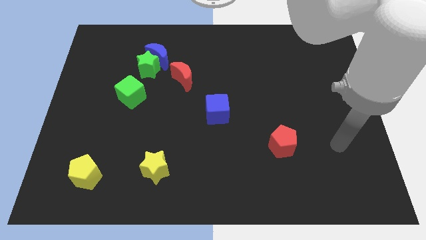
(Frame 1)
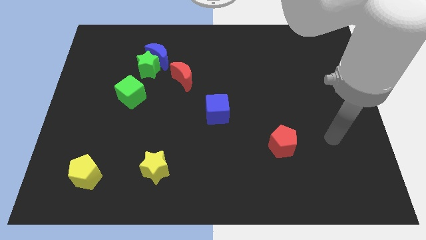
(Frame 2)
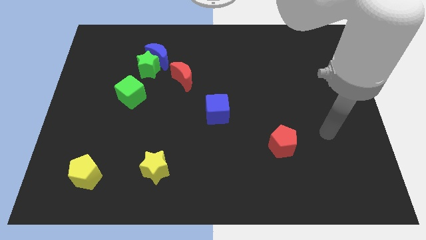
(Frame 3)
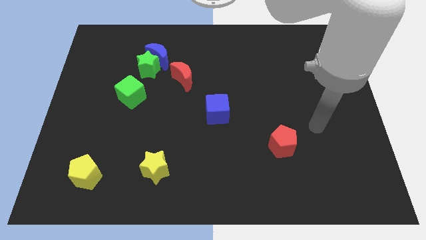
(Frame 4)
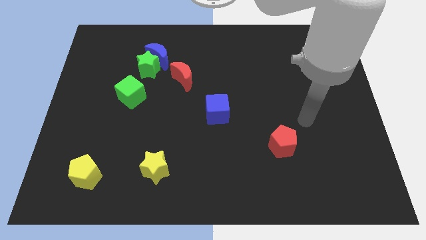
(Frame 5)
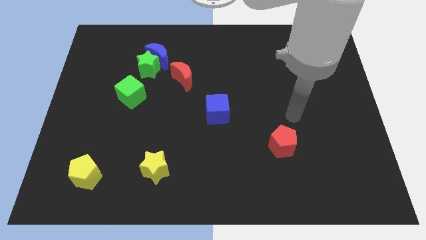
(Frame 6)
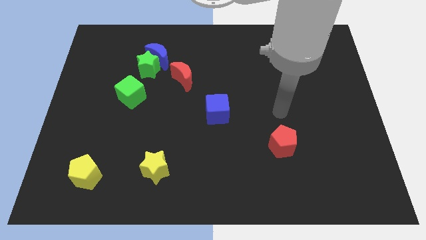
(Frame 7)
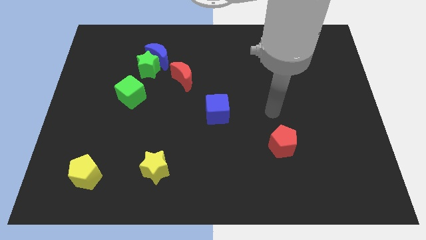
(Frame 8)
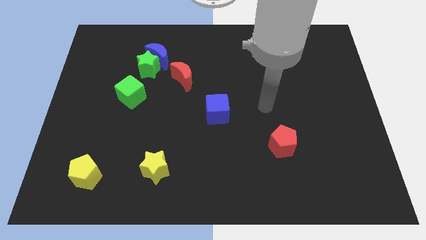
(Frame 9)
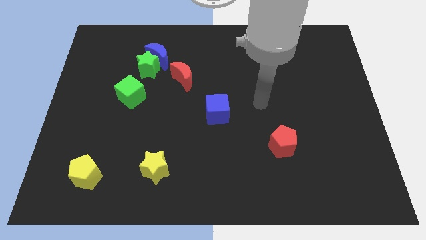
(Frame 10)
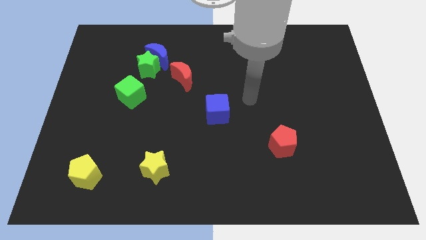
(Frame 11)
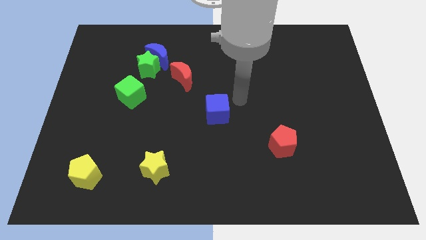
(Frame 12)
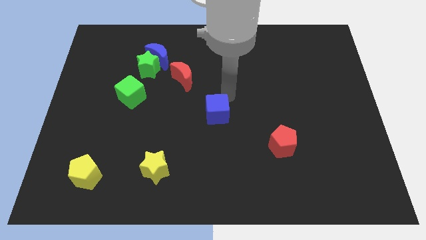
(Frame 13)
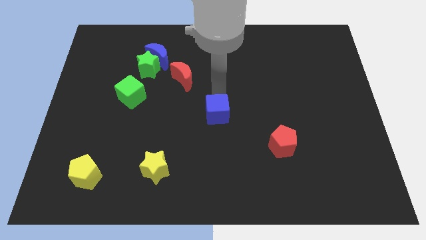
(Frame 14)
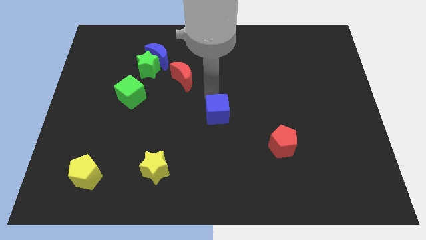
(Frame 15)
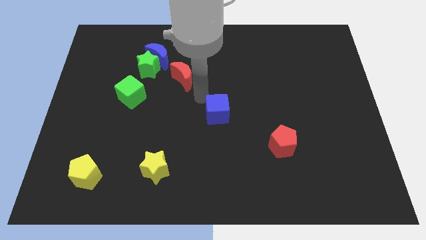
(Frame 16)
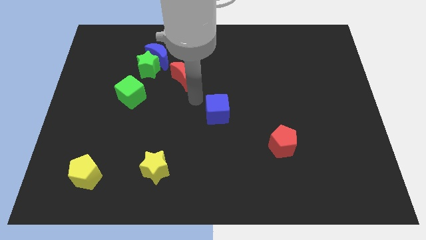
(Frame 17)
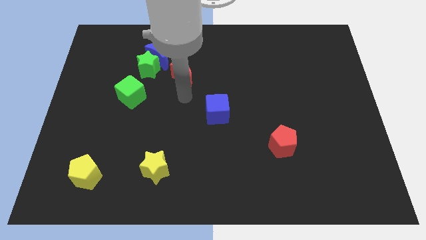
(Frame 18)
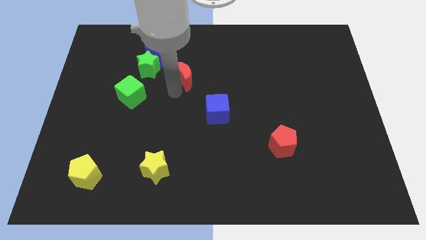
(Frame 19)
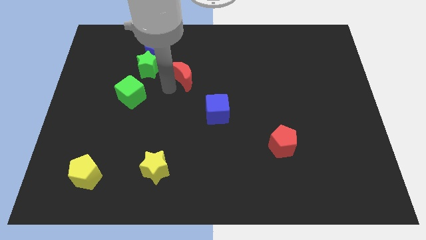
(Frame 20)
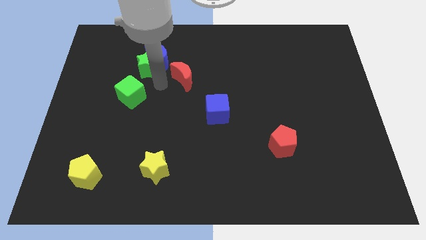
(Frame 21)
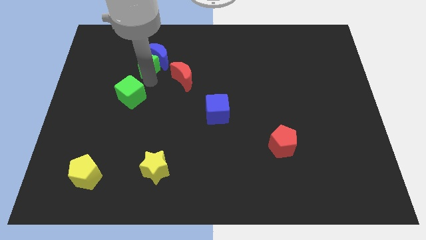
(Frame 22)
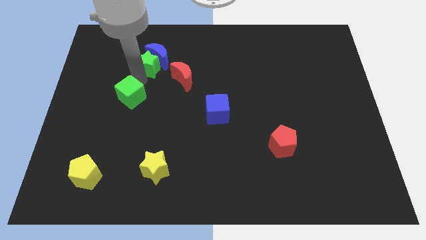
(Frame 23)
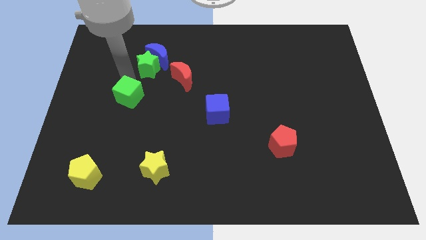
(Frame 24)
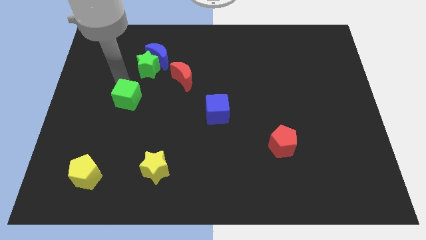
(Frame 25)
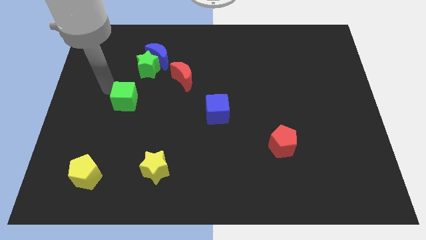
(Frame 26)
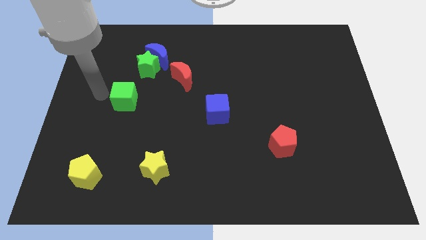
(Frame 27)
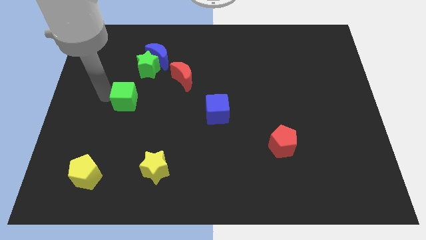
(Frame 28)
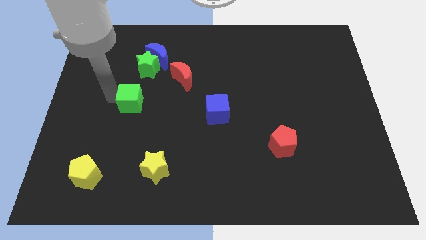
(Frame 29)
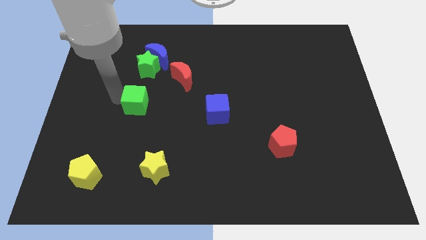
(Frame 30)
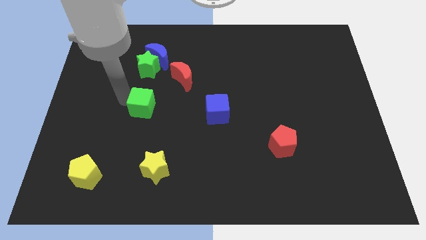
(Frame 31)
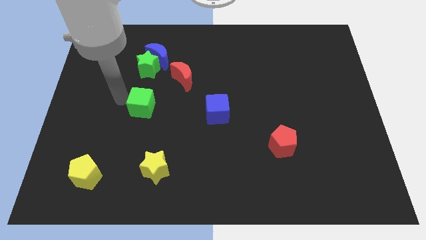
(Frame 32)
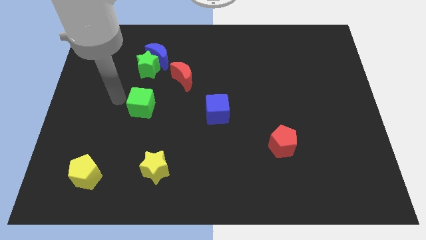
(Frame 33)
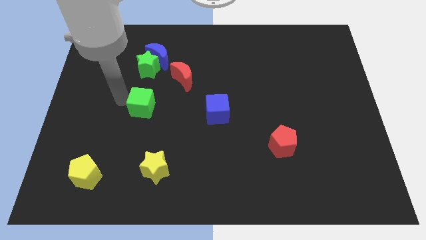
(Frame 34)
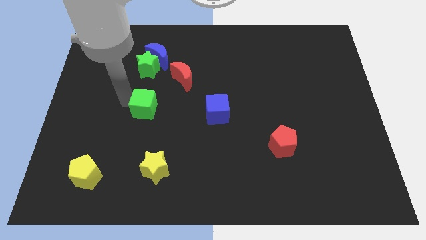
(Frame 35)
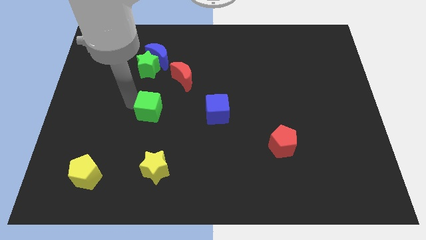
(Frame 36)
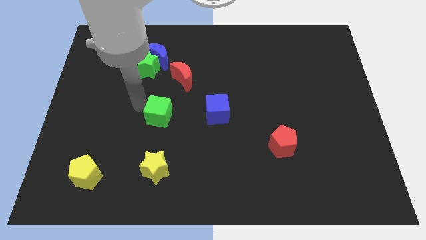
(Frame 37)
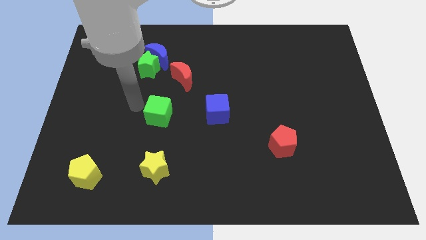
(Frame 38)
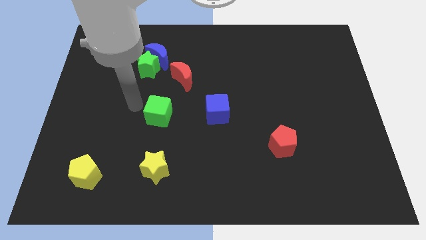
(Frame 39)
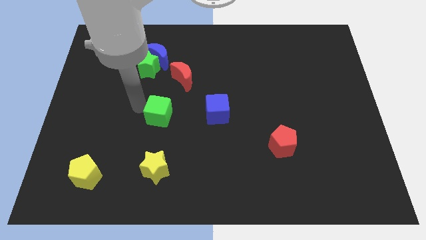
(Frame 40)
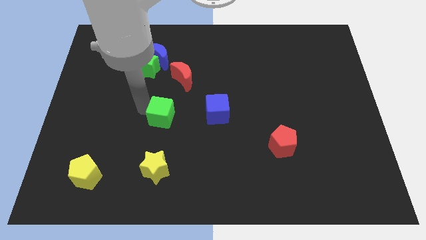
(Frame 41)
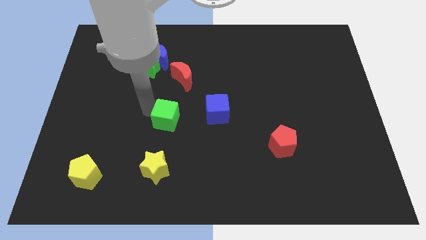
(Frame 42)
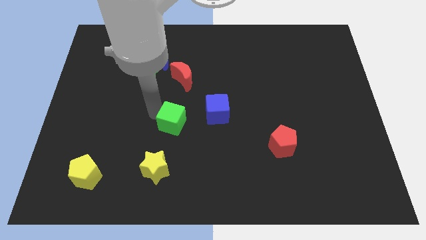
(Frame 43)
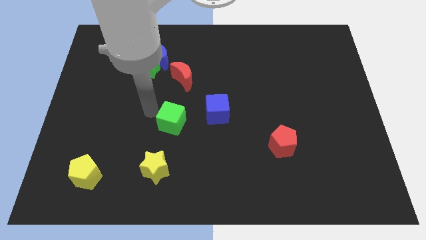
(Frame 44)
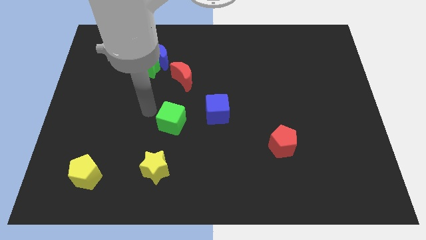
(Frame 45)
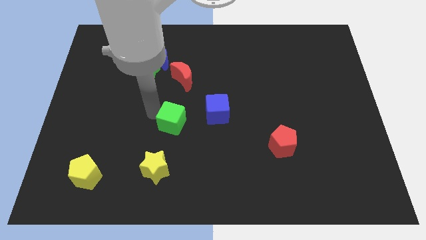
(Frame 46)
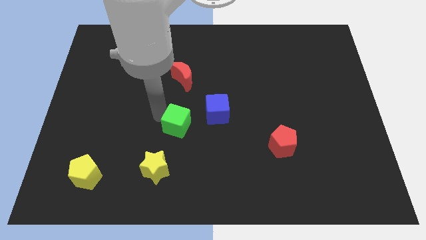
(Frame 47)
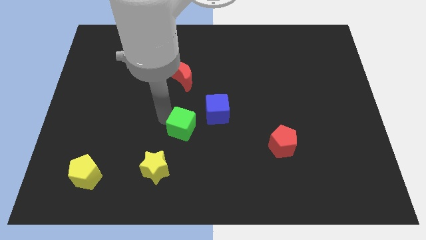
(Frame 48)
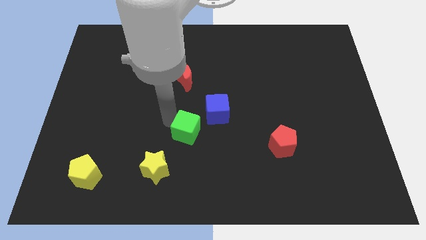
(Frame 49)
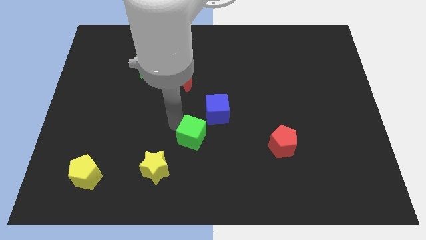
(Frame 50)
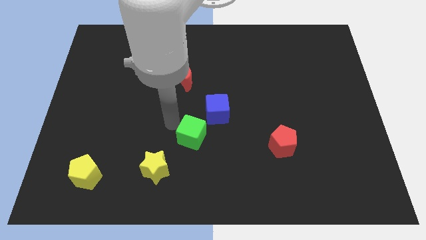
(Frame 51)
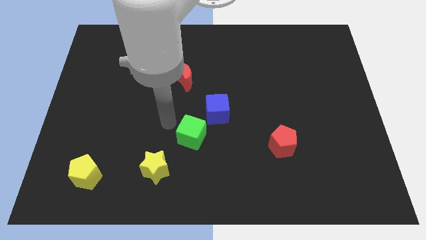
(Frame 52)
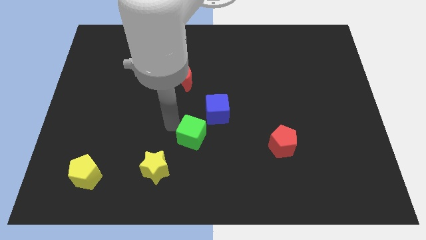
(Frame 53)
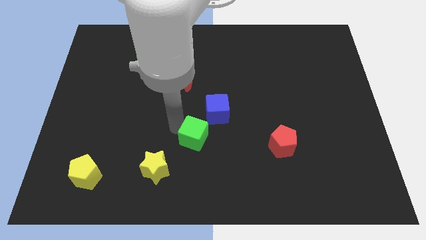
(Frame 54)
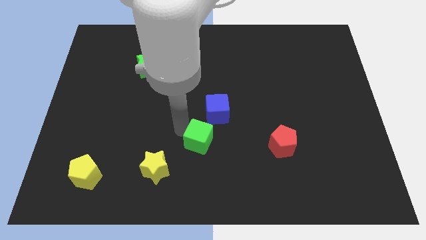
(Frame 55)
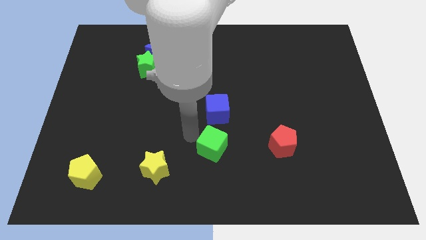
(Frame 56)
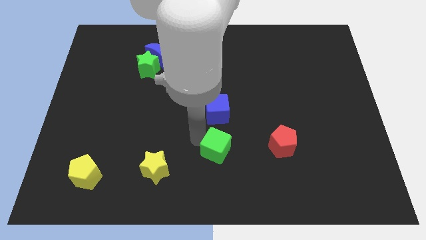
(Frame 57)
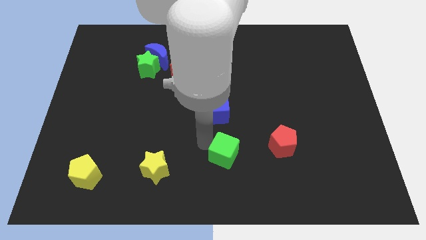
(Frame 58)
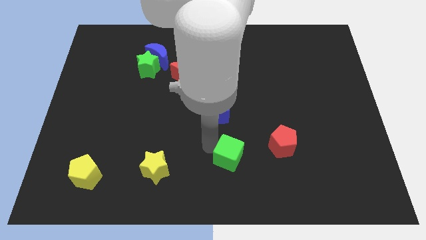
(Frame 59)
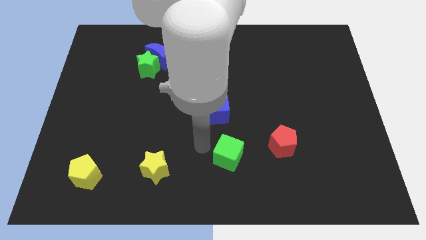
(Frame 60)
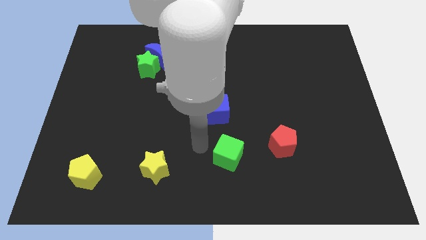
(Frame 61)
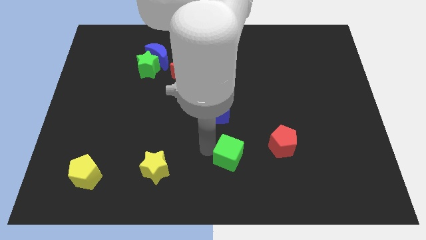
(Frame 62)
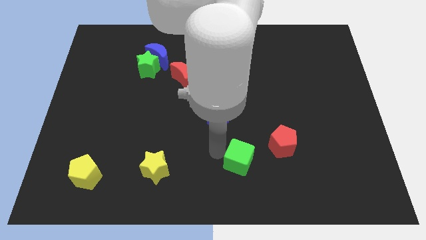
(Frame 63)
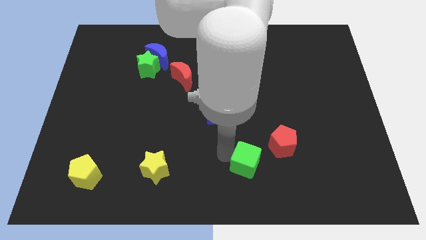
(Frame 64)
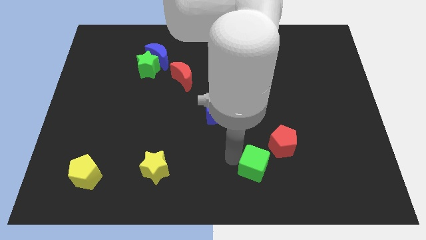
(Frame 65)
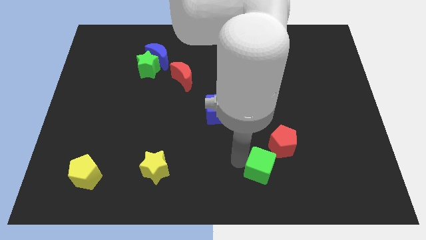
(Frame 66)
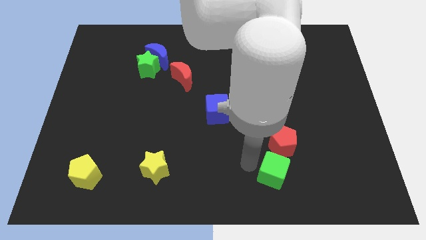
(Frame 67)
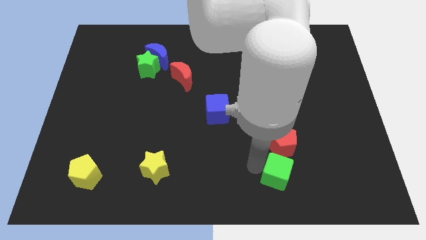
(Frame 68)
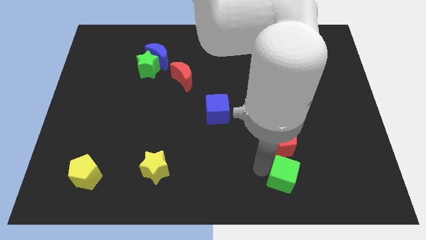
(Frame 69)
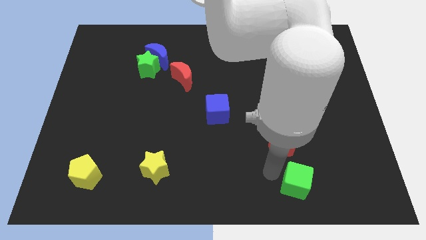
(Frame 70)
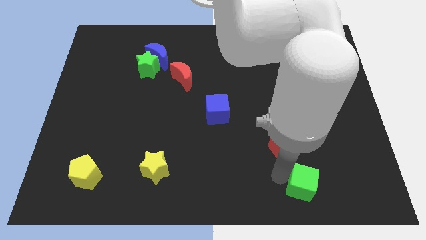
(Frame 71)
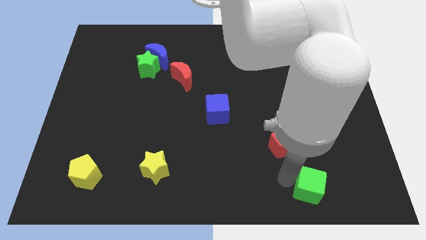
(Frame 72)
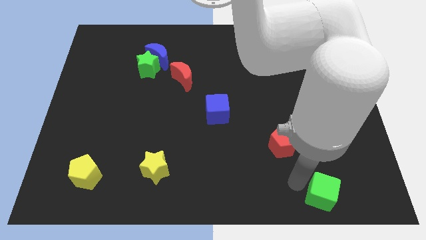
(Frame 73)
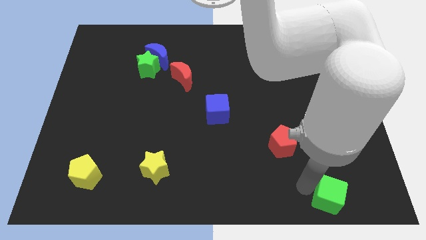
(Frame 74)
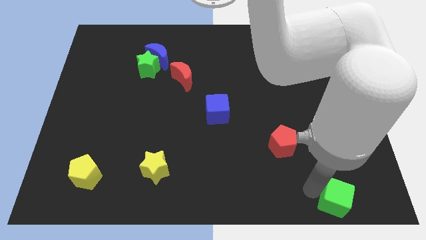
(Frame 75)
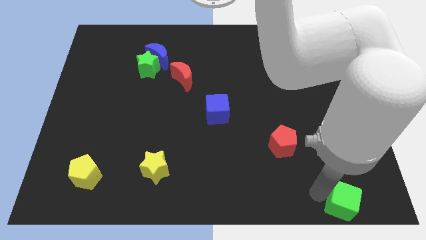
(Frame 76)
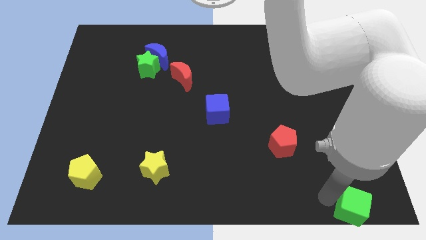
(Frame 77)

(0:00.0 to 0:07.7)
push the green cube to the lower right corner
